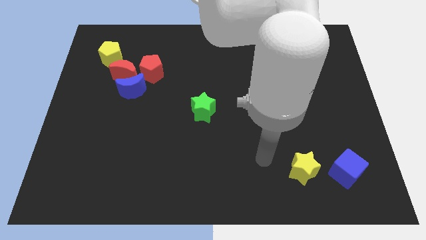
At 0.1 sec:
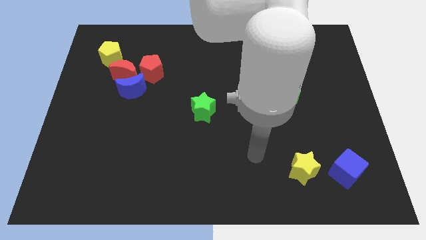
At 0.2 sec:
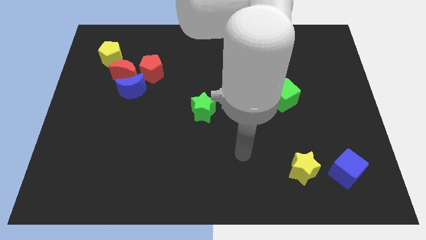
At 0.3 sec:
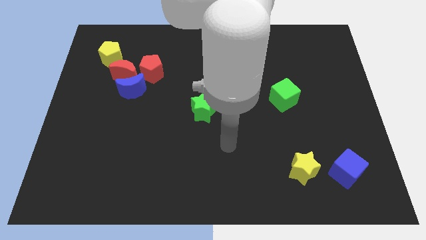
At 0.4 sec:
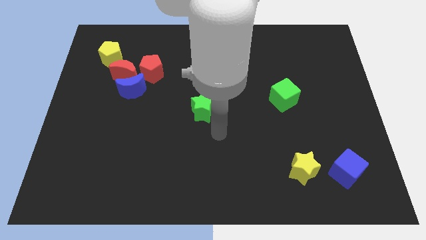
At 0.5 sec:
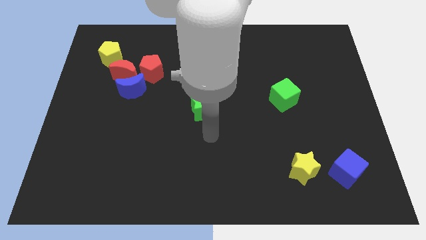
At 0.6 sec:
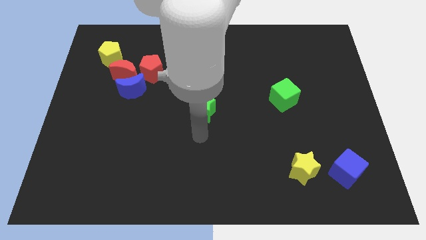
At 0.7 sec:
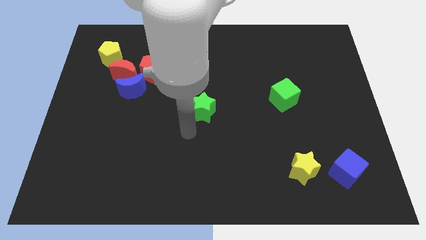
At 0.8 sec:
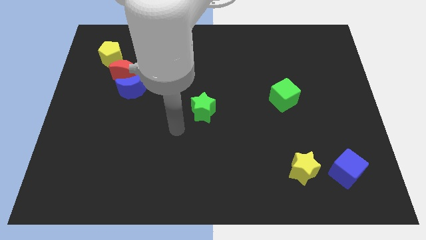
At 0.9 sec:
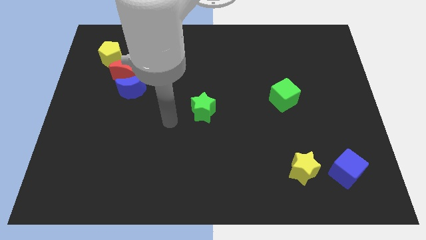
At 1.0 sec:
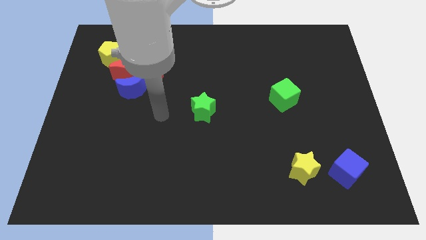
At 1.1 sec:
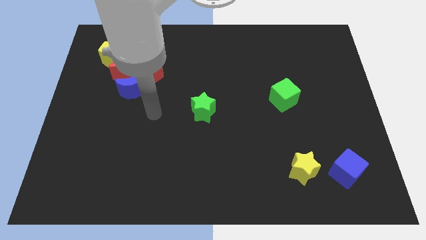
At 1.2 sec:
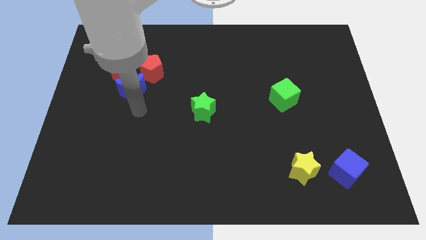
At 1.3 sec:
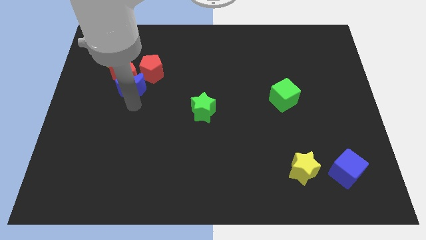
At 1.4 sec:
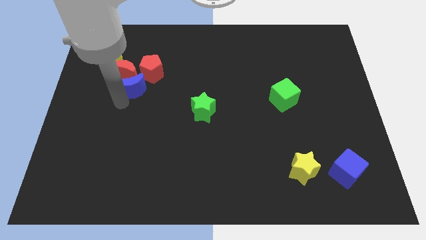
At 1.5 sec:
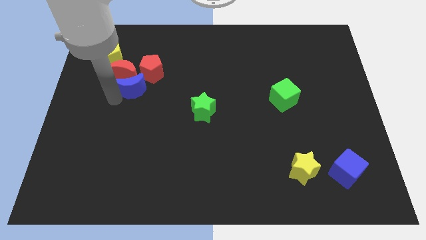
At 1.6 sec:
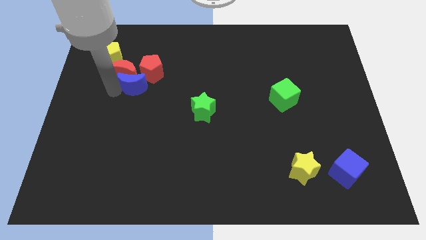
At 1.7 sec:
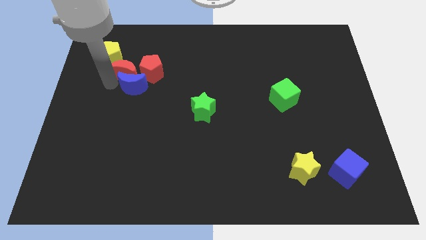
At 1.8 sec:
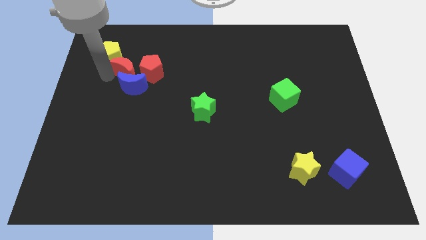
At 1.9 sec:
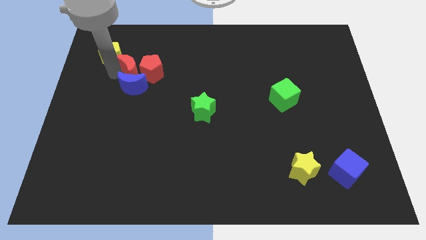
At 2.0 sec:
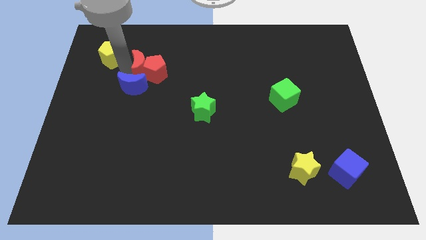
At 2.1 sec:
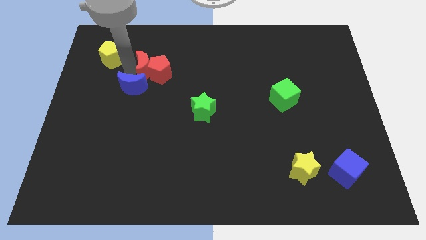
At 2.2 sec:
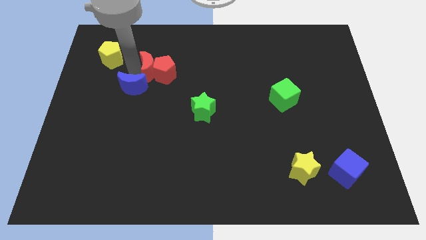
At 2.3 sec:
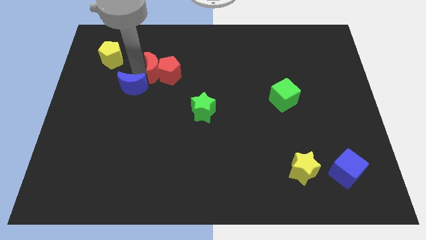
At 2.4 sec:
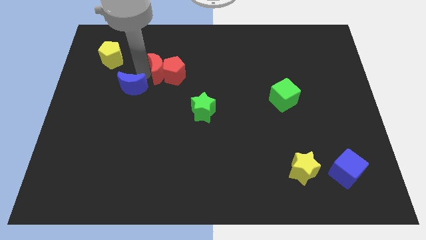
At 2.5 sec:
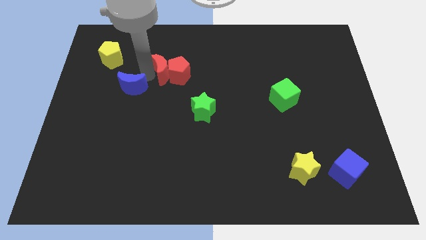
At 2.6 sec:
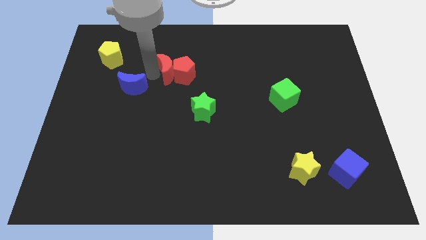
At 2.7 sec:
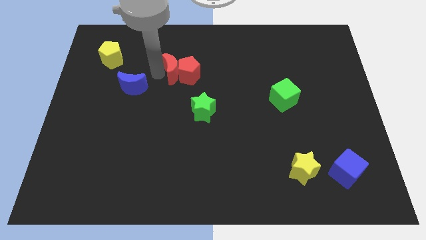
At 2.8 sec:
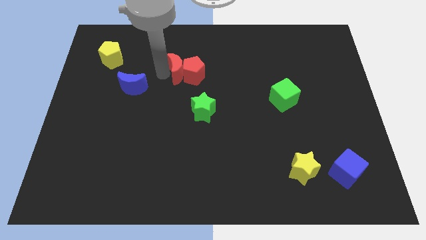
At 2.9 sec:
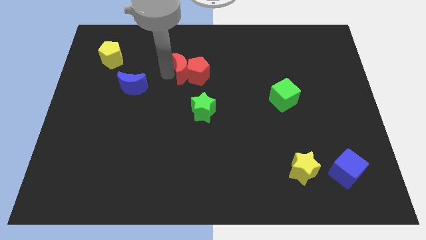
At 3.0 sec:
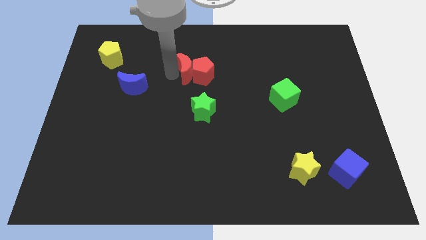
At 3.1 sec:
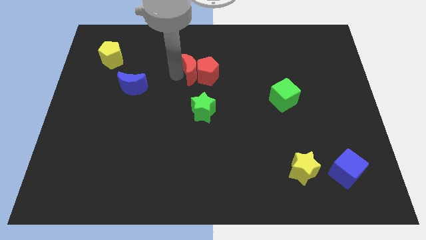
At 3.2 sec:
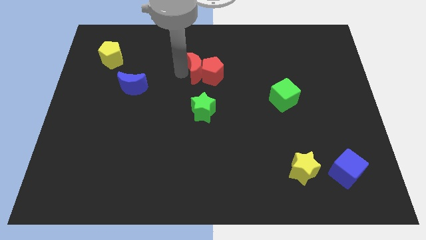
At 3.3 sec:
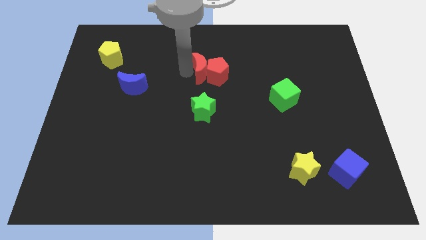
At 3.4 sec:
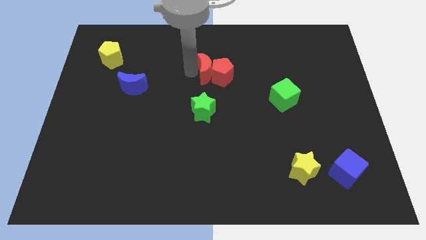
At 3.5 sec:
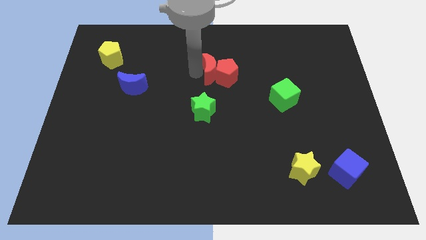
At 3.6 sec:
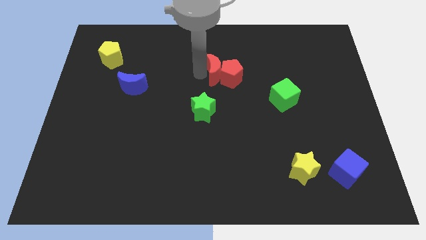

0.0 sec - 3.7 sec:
slide the red pentagon right

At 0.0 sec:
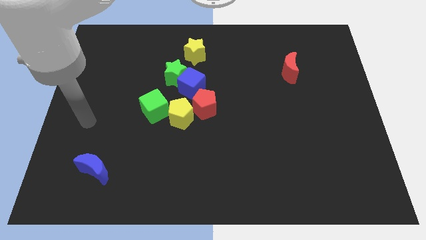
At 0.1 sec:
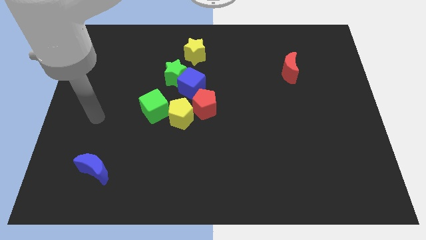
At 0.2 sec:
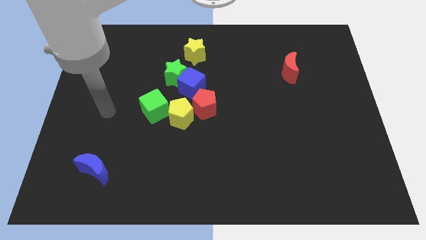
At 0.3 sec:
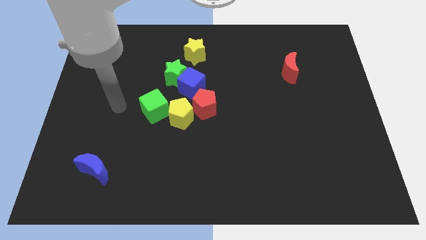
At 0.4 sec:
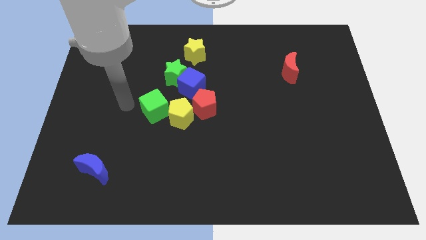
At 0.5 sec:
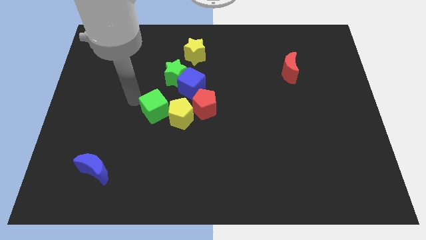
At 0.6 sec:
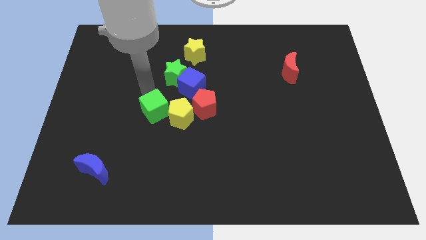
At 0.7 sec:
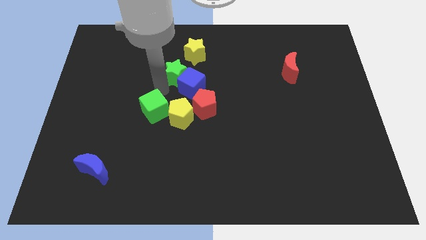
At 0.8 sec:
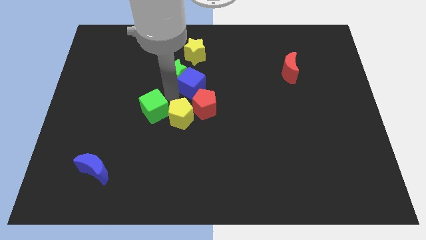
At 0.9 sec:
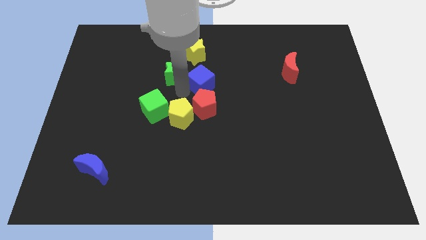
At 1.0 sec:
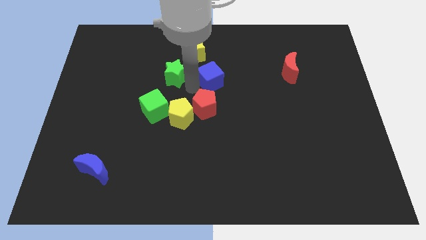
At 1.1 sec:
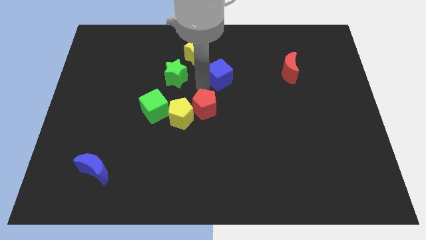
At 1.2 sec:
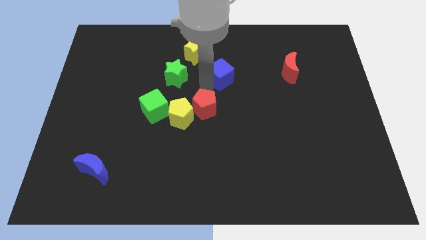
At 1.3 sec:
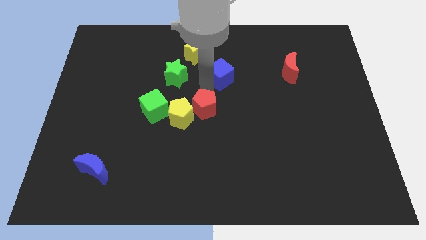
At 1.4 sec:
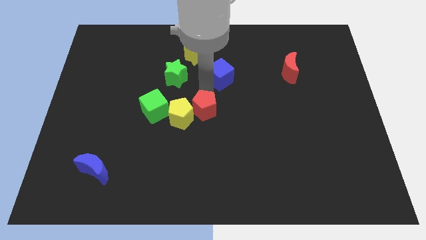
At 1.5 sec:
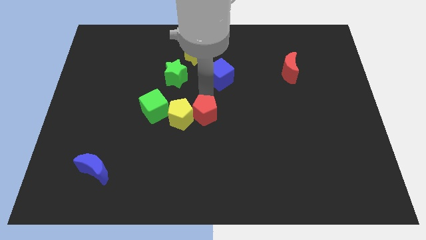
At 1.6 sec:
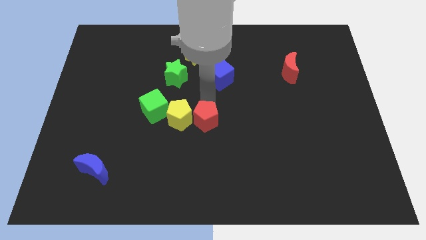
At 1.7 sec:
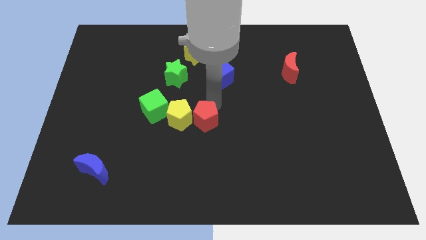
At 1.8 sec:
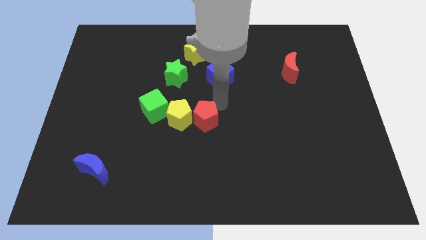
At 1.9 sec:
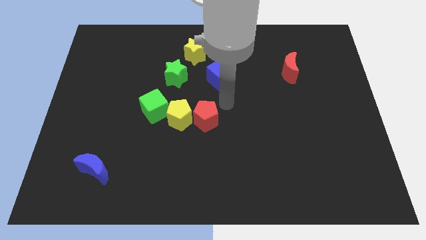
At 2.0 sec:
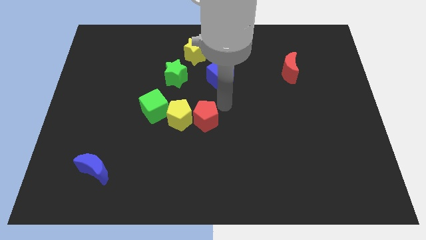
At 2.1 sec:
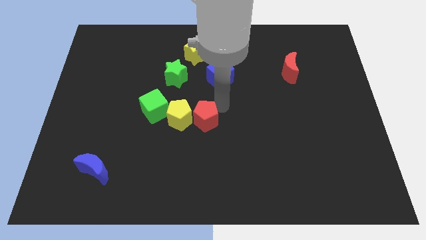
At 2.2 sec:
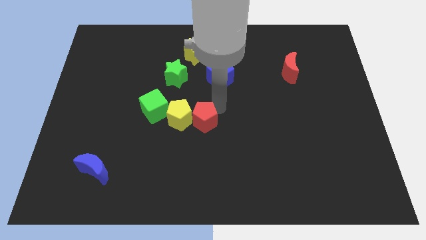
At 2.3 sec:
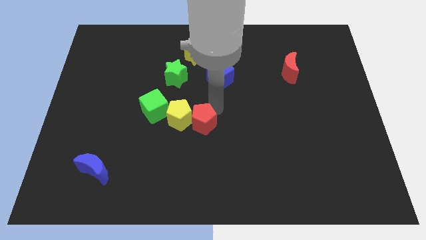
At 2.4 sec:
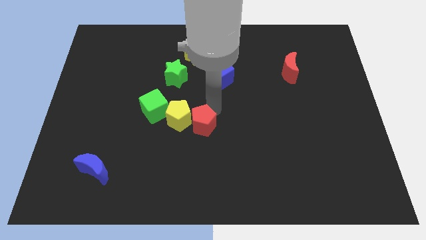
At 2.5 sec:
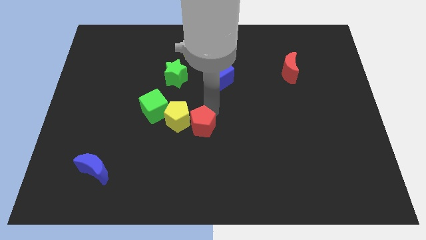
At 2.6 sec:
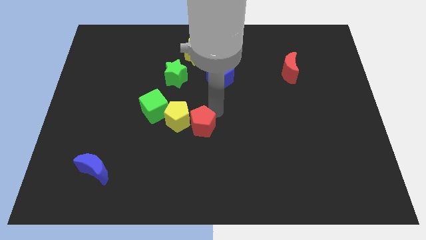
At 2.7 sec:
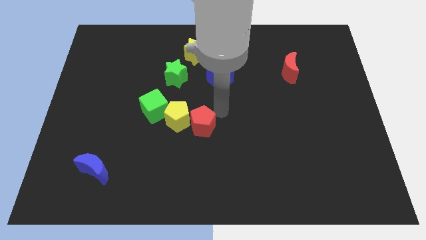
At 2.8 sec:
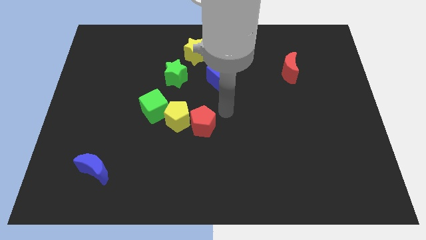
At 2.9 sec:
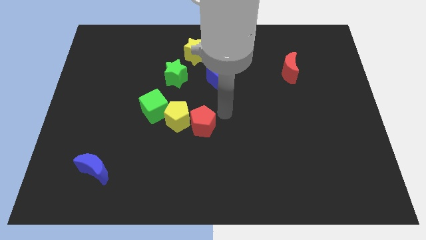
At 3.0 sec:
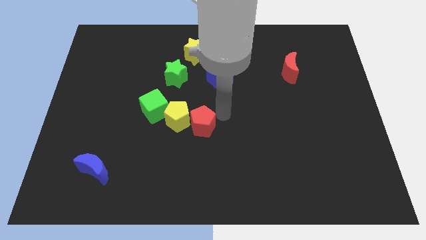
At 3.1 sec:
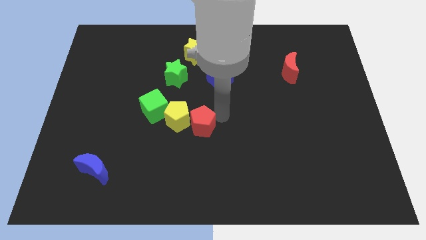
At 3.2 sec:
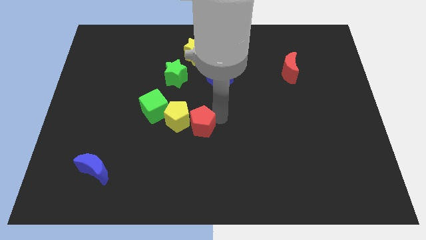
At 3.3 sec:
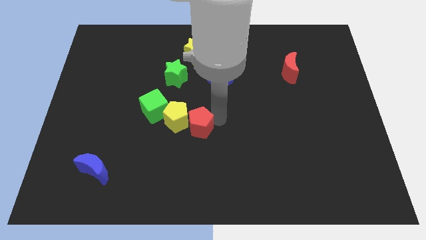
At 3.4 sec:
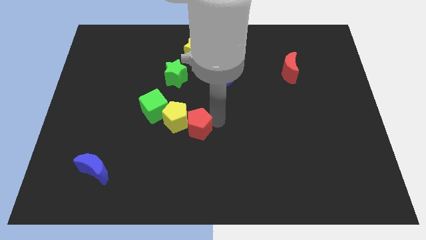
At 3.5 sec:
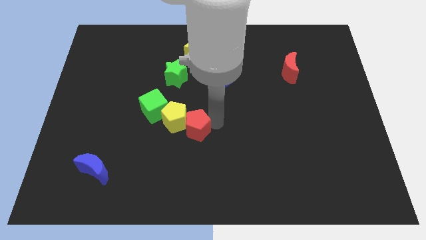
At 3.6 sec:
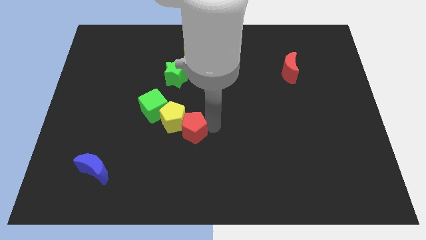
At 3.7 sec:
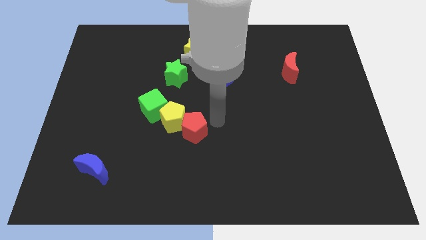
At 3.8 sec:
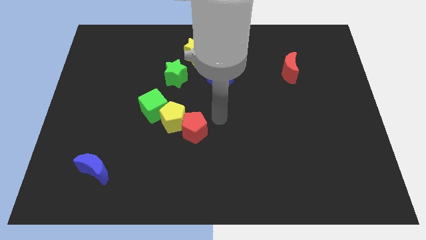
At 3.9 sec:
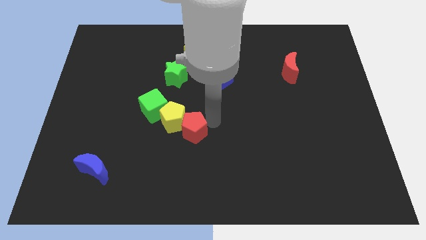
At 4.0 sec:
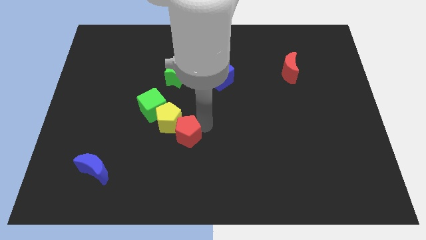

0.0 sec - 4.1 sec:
slightly push the red pentagon downwards and then to the left
